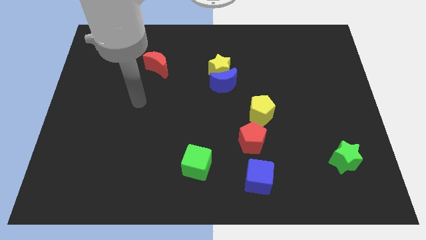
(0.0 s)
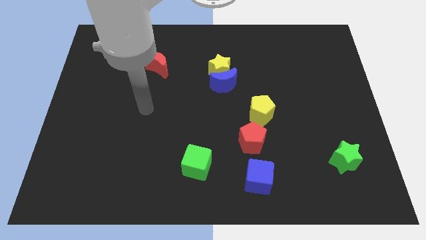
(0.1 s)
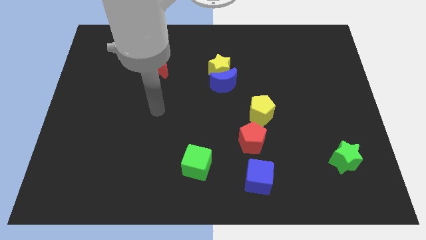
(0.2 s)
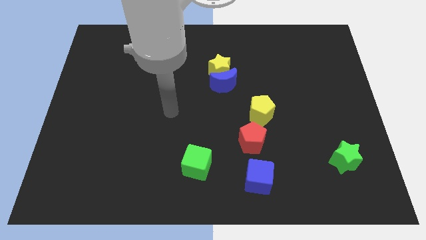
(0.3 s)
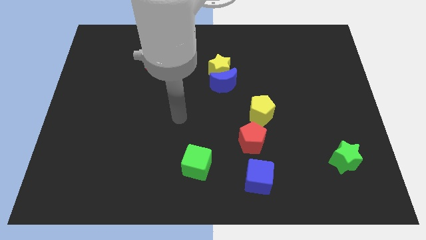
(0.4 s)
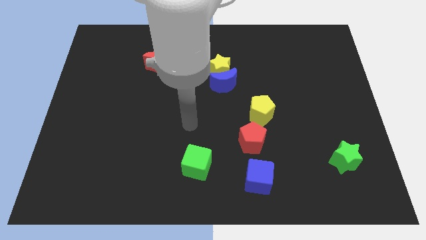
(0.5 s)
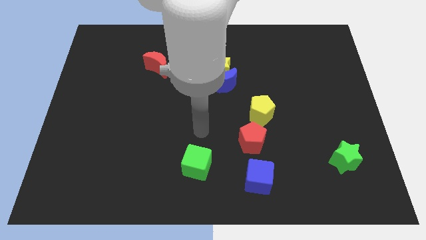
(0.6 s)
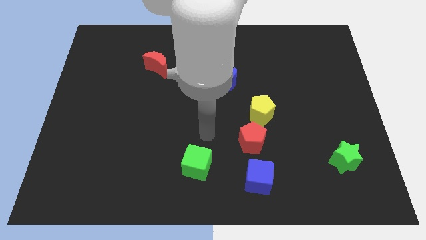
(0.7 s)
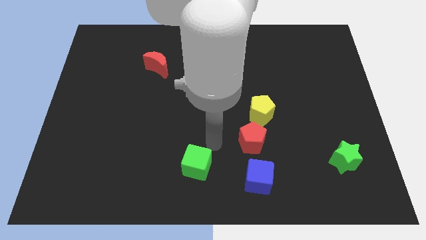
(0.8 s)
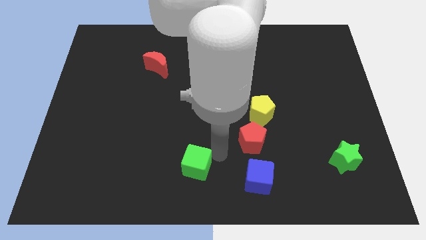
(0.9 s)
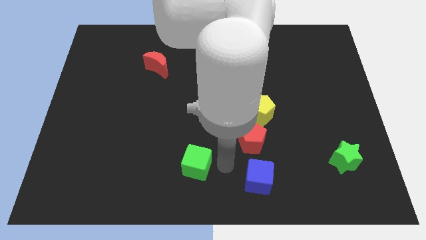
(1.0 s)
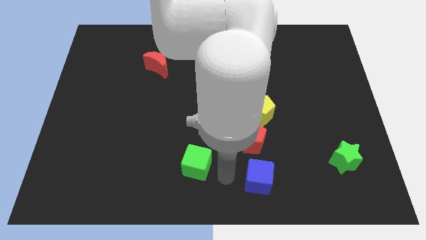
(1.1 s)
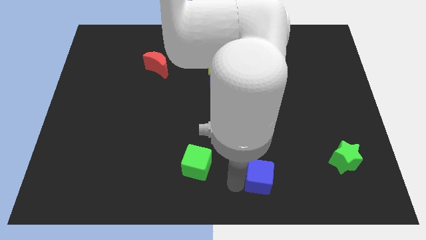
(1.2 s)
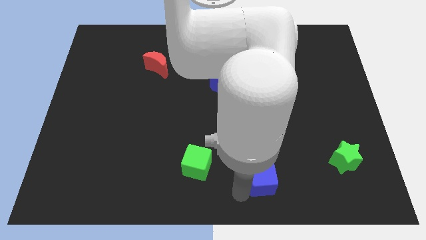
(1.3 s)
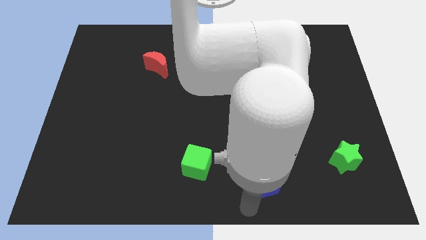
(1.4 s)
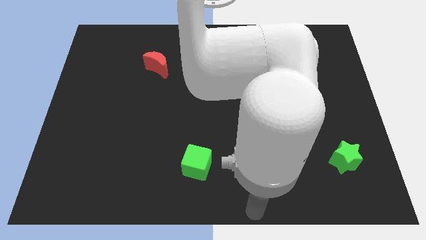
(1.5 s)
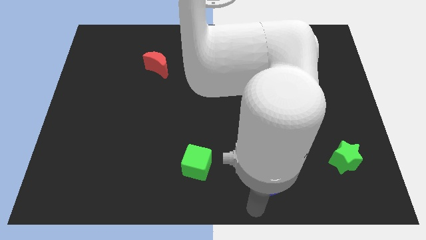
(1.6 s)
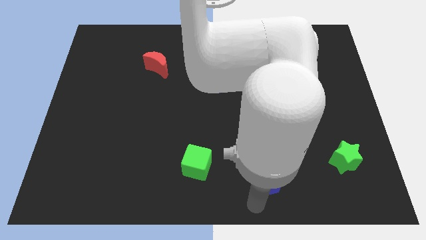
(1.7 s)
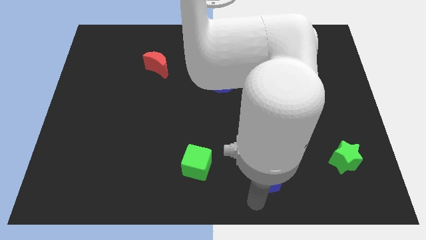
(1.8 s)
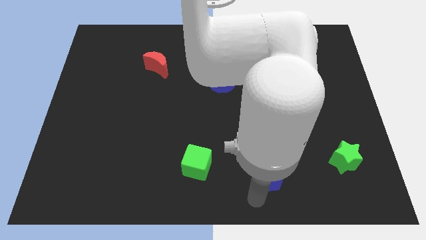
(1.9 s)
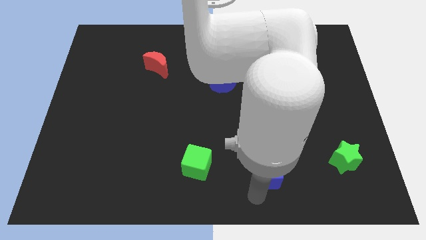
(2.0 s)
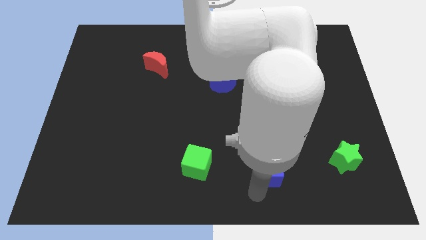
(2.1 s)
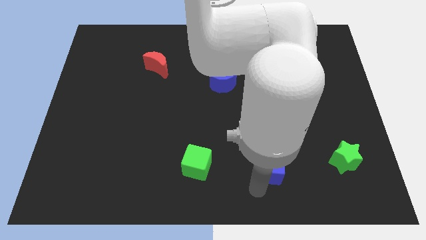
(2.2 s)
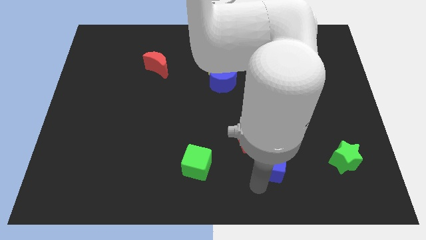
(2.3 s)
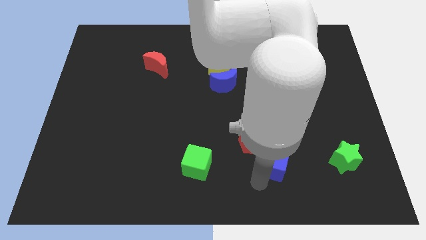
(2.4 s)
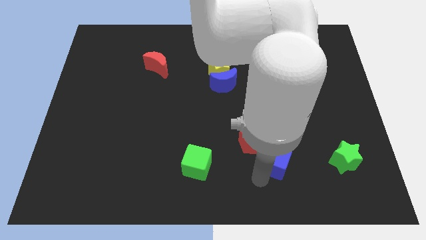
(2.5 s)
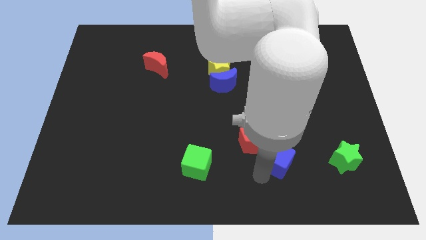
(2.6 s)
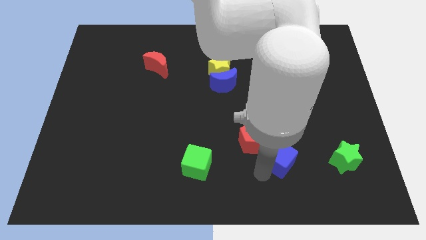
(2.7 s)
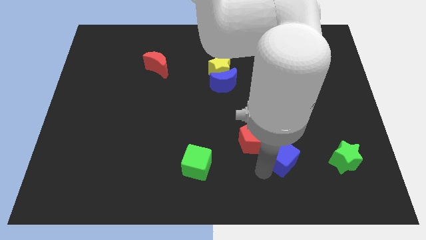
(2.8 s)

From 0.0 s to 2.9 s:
slide the blue cube a bit up and right

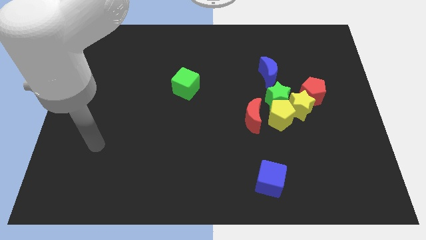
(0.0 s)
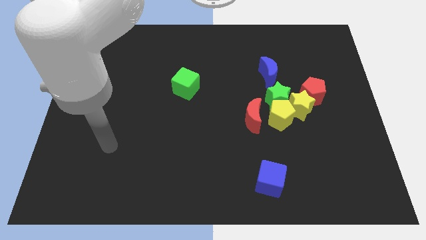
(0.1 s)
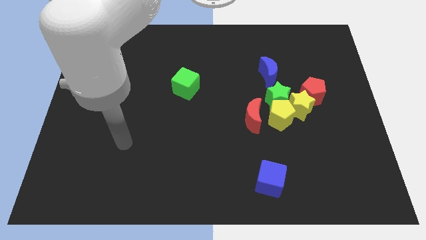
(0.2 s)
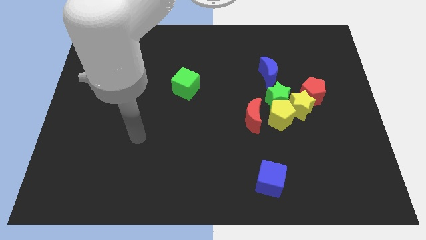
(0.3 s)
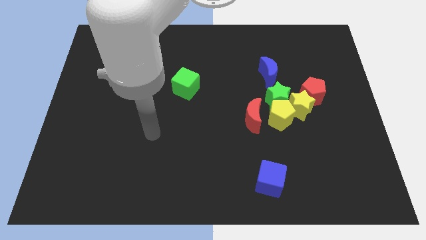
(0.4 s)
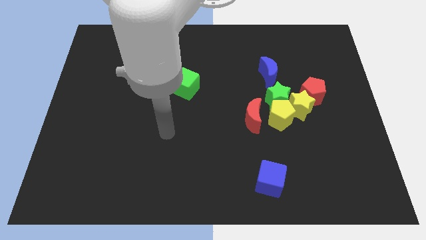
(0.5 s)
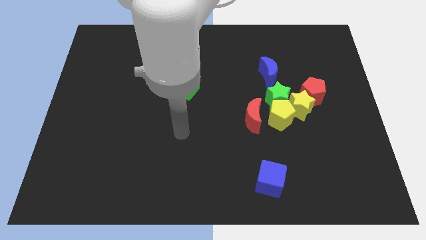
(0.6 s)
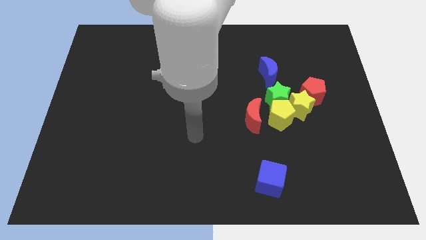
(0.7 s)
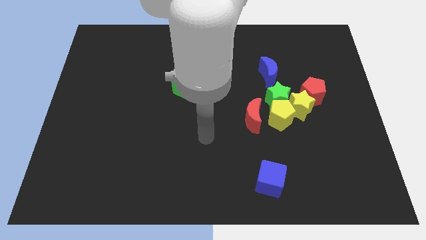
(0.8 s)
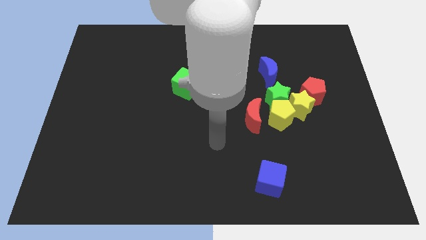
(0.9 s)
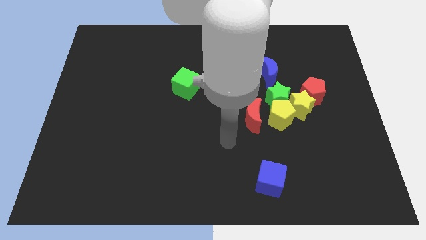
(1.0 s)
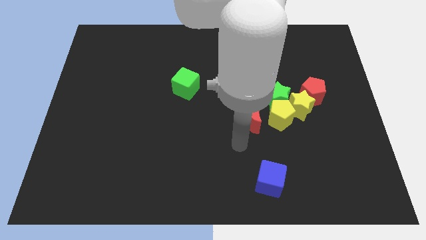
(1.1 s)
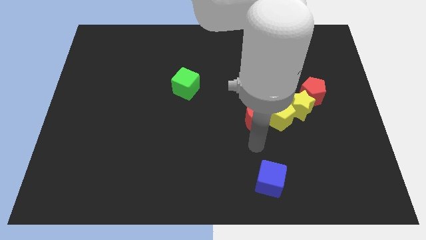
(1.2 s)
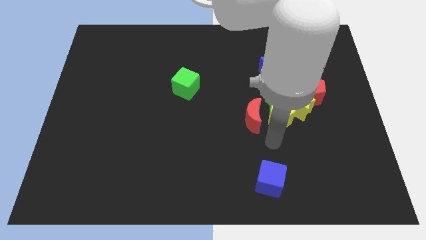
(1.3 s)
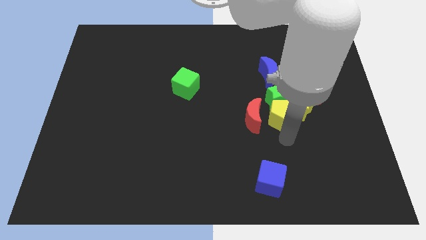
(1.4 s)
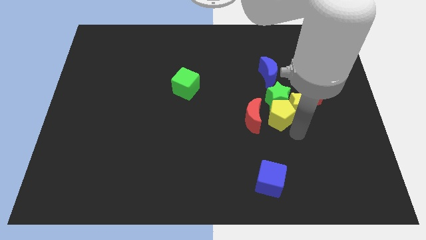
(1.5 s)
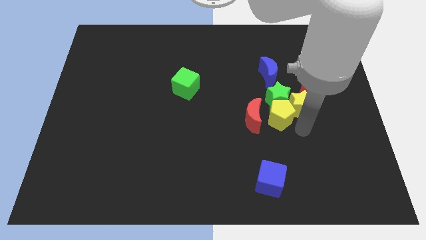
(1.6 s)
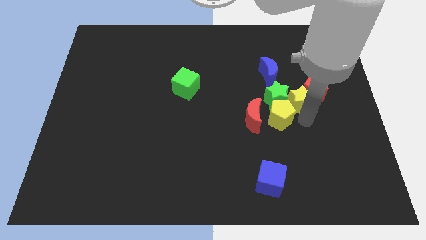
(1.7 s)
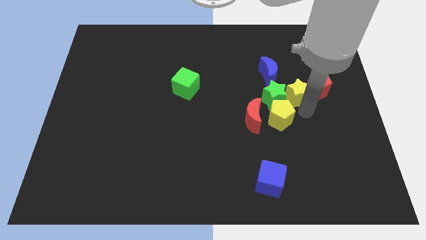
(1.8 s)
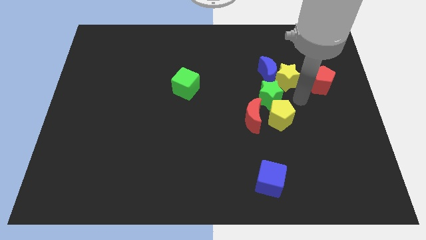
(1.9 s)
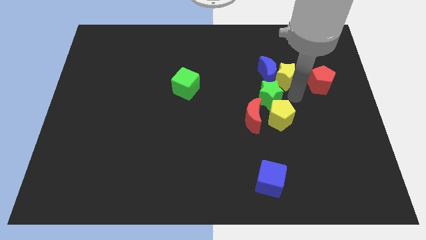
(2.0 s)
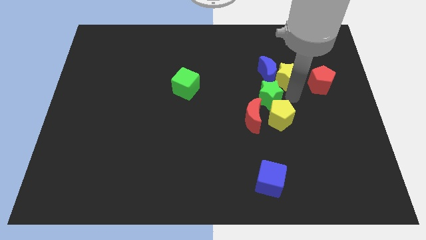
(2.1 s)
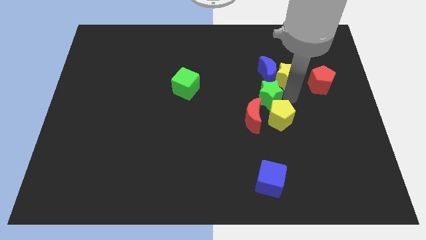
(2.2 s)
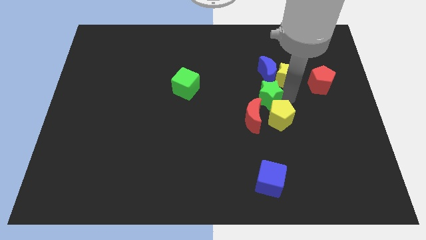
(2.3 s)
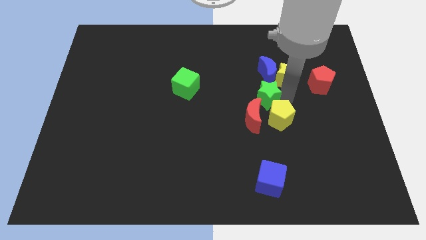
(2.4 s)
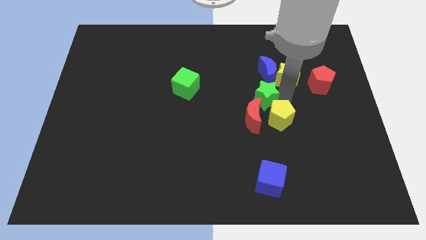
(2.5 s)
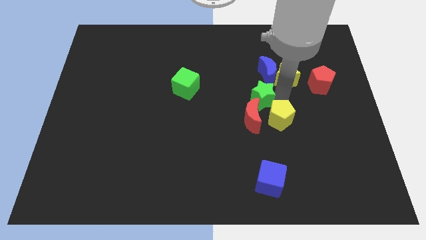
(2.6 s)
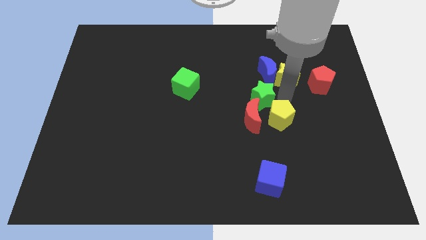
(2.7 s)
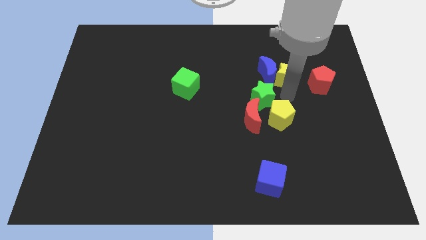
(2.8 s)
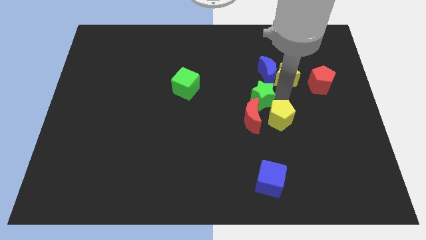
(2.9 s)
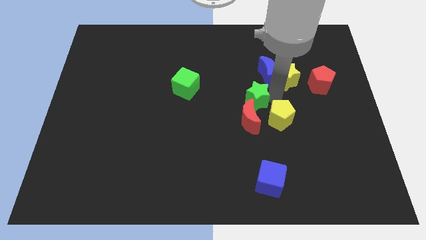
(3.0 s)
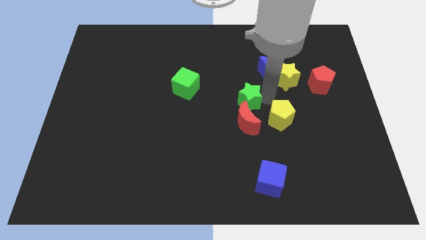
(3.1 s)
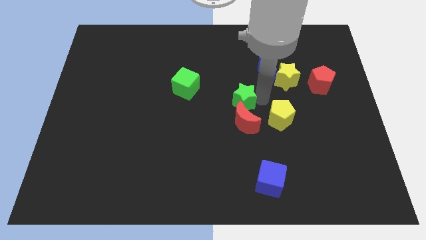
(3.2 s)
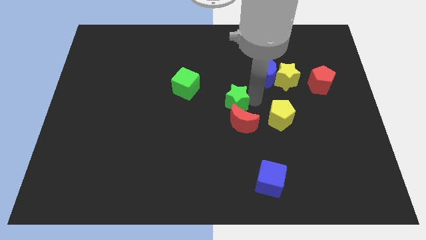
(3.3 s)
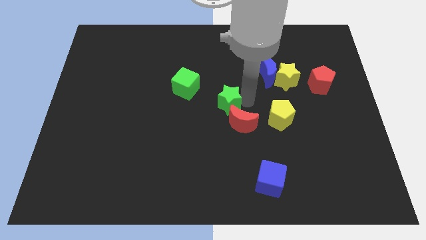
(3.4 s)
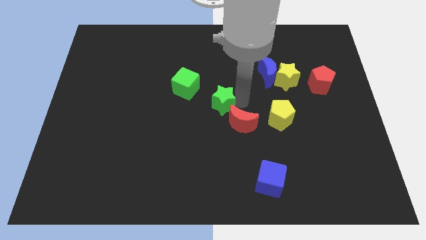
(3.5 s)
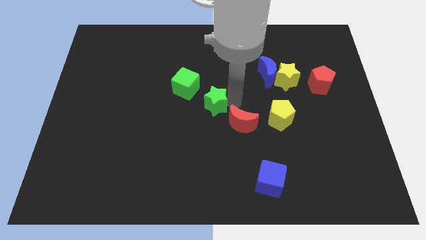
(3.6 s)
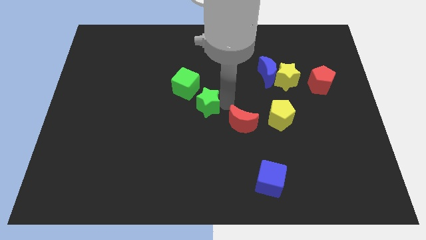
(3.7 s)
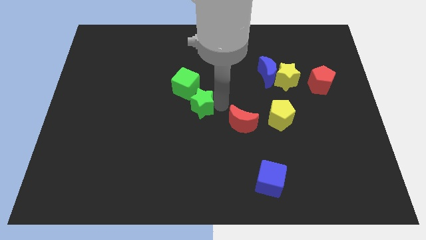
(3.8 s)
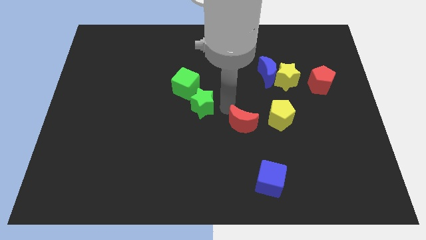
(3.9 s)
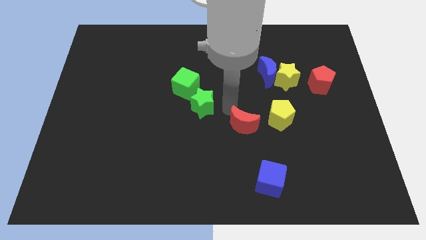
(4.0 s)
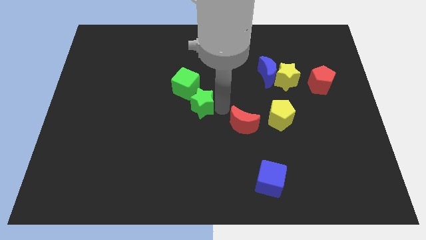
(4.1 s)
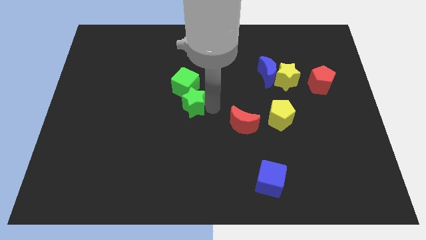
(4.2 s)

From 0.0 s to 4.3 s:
move the green star left

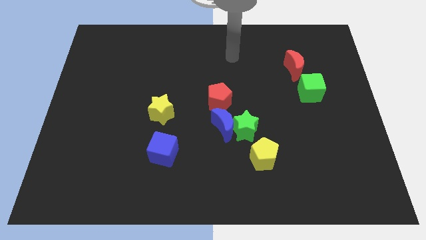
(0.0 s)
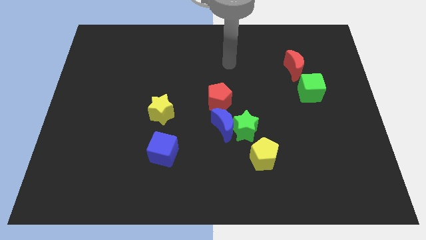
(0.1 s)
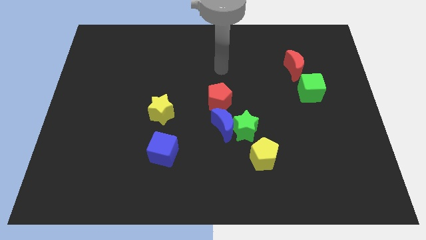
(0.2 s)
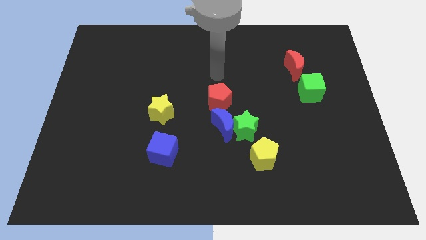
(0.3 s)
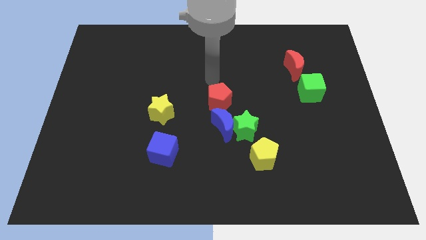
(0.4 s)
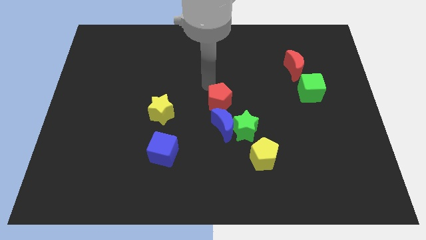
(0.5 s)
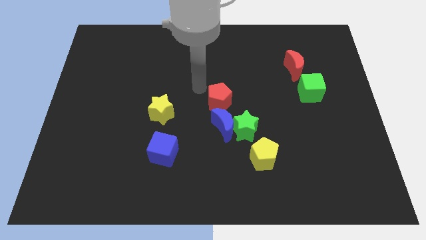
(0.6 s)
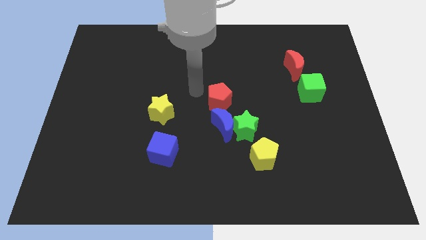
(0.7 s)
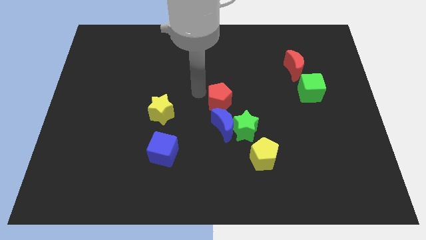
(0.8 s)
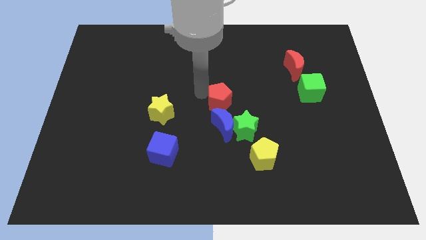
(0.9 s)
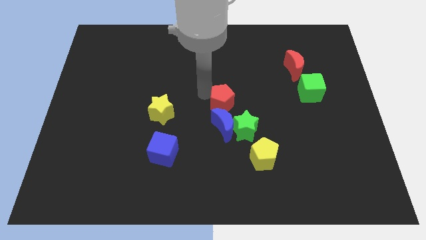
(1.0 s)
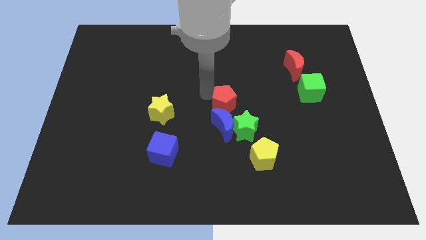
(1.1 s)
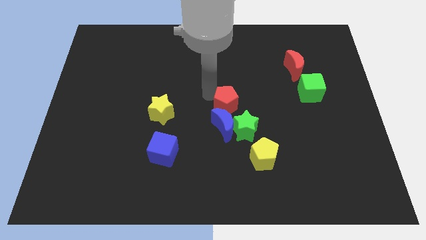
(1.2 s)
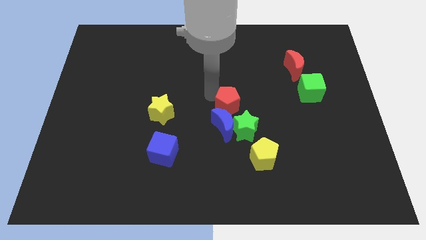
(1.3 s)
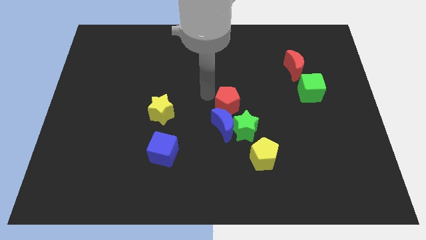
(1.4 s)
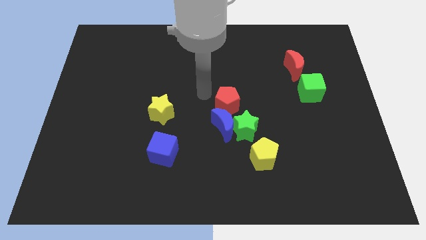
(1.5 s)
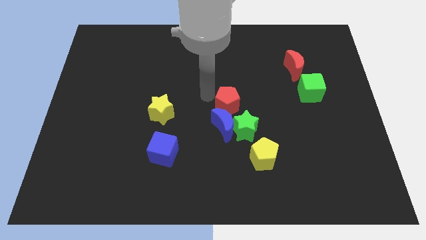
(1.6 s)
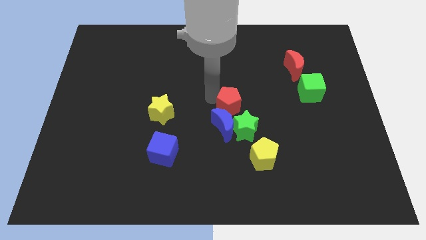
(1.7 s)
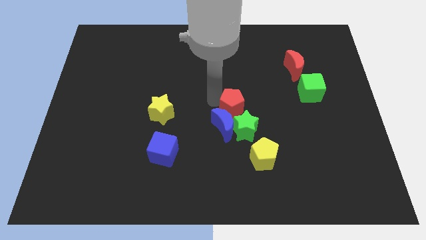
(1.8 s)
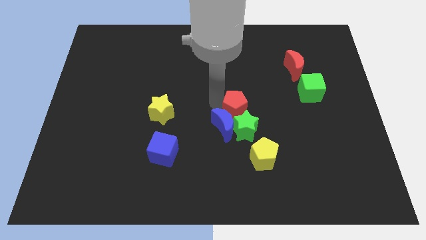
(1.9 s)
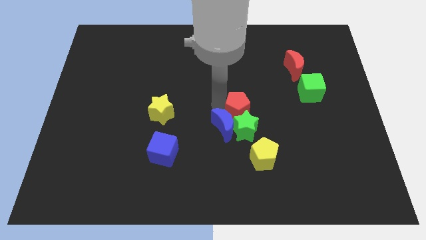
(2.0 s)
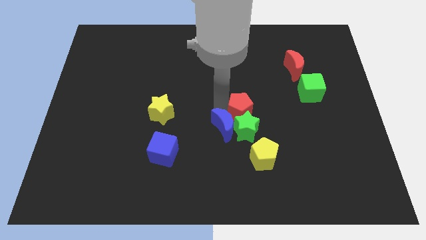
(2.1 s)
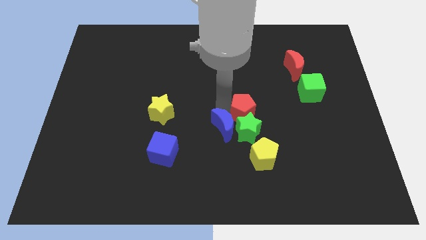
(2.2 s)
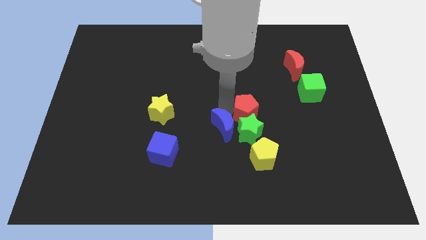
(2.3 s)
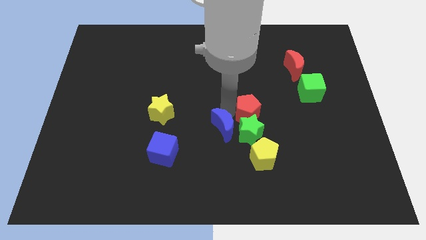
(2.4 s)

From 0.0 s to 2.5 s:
slightly push the red pentagon downwards and right diagonally
